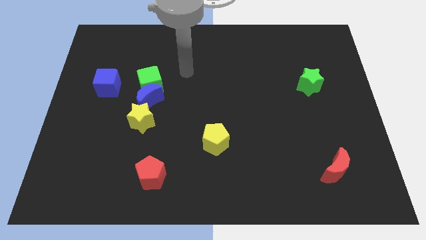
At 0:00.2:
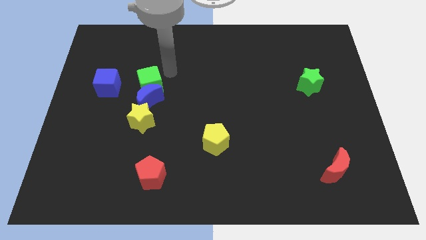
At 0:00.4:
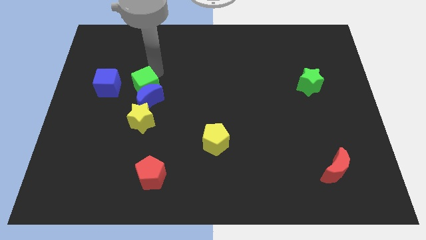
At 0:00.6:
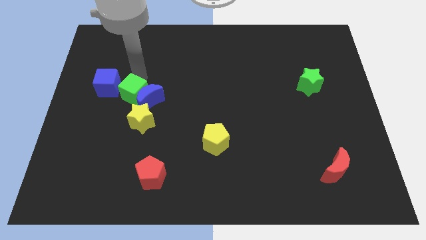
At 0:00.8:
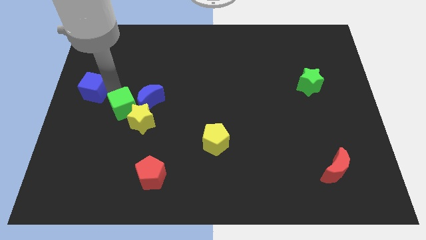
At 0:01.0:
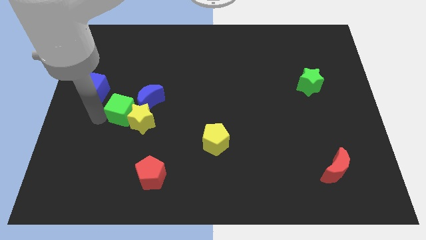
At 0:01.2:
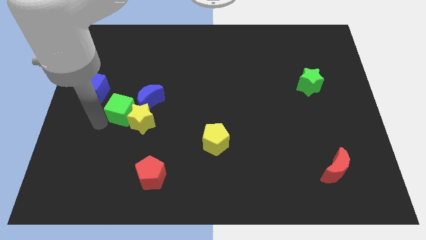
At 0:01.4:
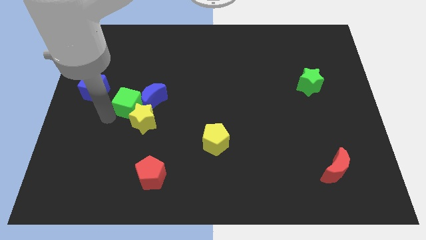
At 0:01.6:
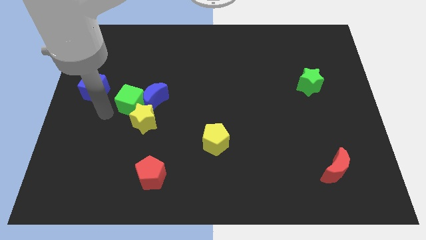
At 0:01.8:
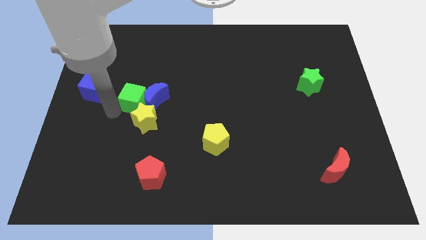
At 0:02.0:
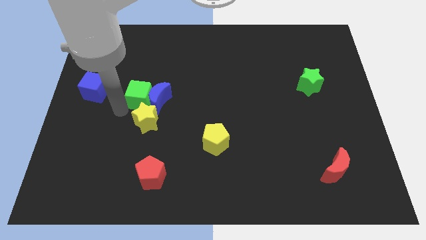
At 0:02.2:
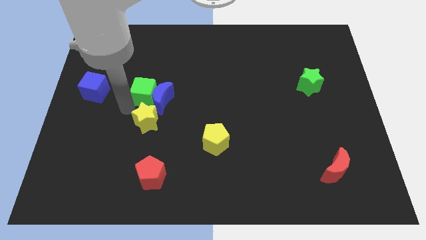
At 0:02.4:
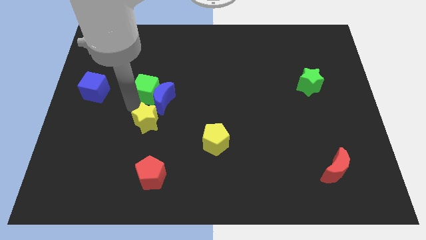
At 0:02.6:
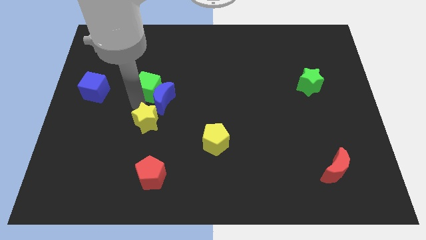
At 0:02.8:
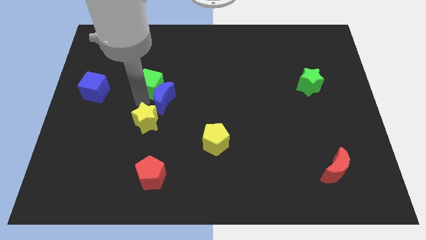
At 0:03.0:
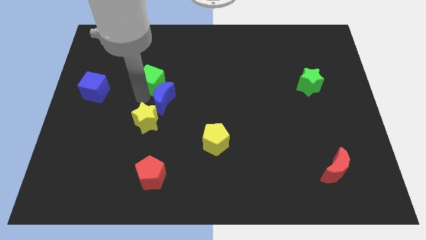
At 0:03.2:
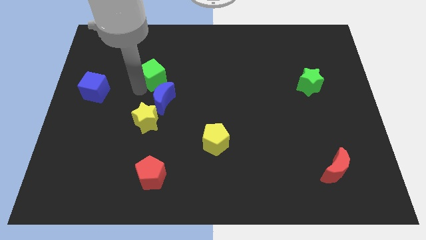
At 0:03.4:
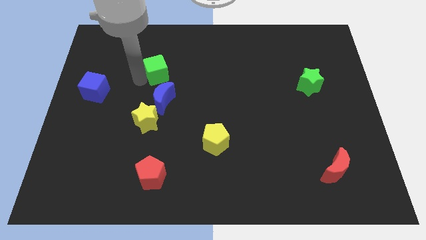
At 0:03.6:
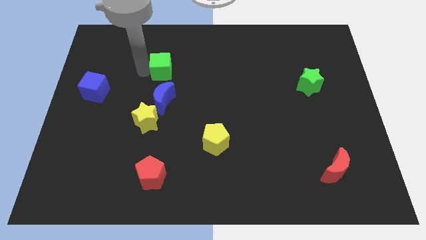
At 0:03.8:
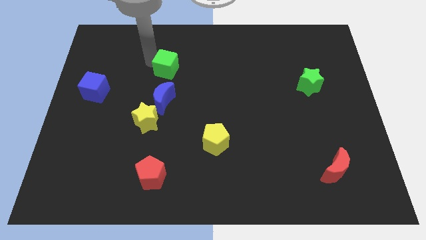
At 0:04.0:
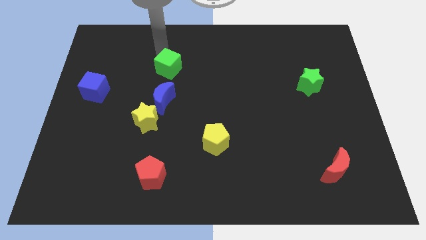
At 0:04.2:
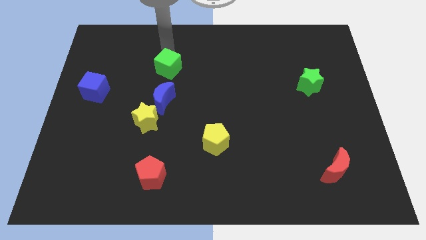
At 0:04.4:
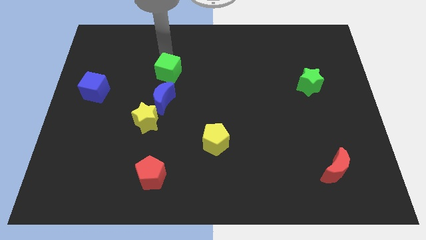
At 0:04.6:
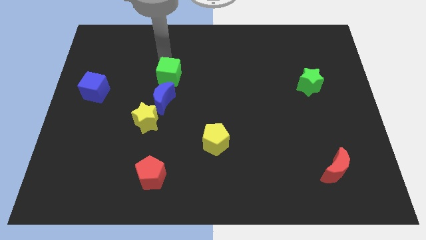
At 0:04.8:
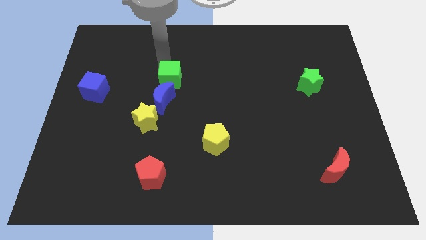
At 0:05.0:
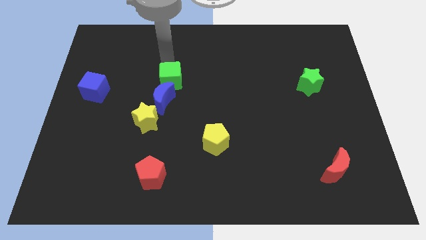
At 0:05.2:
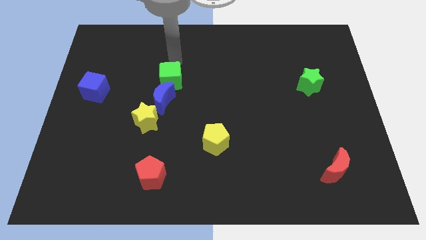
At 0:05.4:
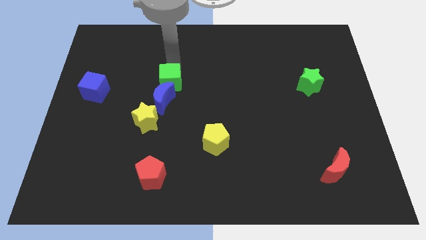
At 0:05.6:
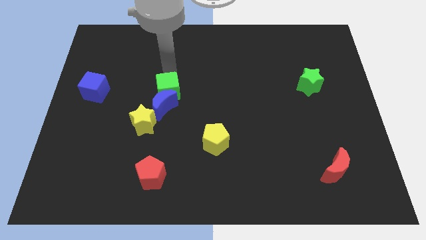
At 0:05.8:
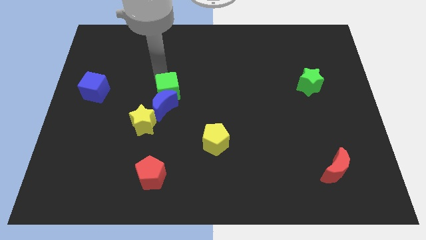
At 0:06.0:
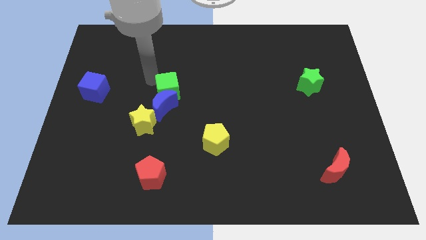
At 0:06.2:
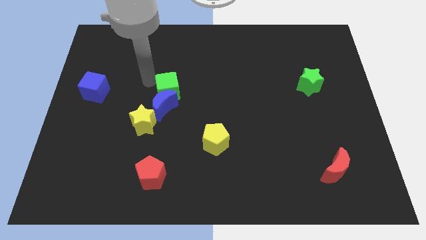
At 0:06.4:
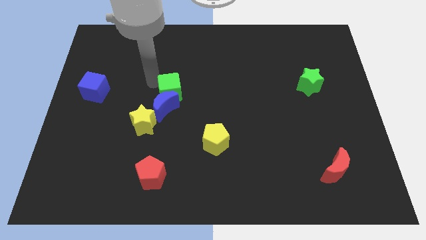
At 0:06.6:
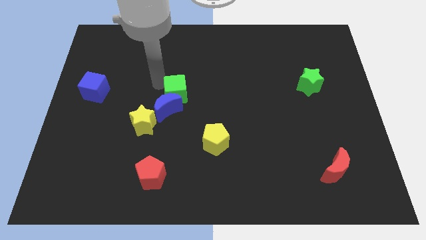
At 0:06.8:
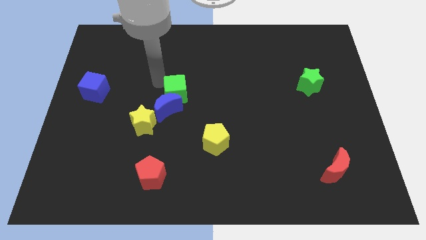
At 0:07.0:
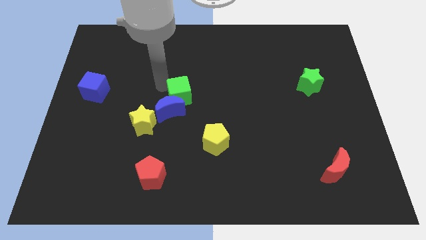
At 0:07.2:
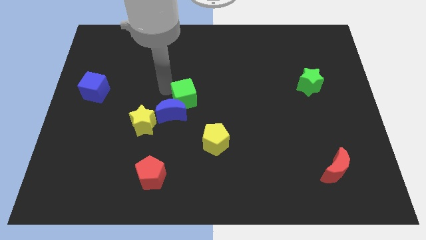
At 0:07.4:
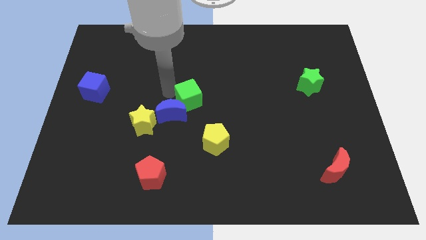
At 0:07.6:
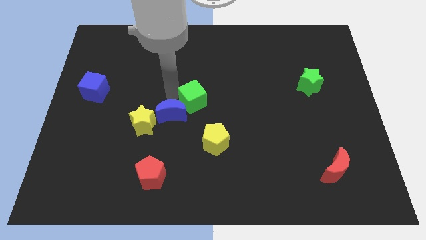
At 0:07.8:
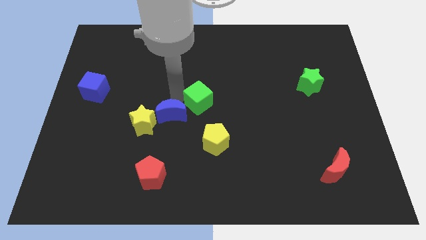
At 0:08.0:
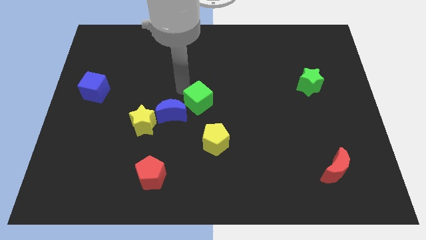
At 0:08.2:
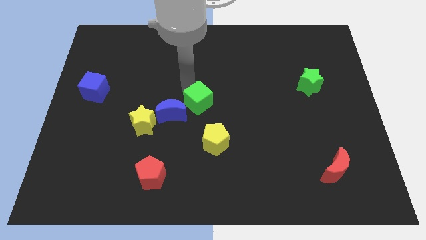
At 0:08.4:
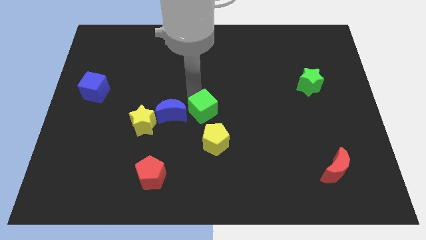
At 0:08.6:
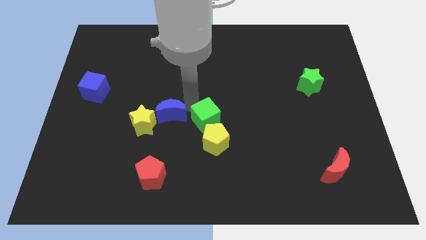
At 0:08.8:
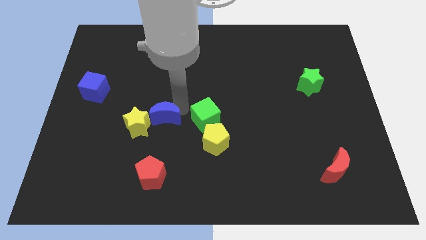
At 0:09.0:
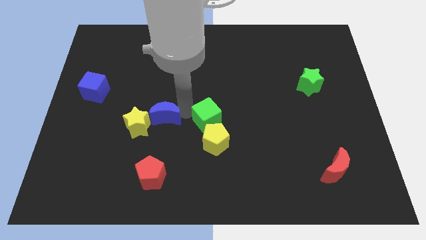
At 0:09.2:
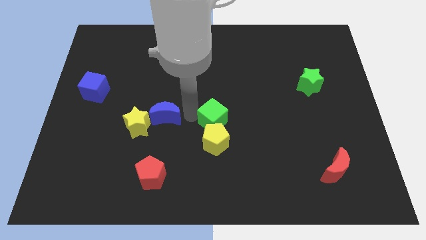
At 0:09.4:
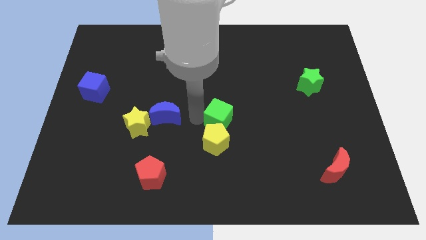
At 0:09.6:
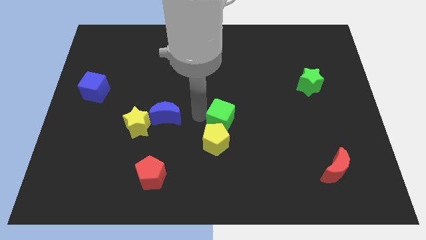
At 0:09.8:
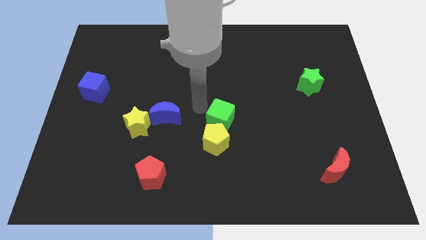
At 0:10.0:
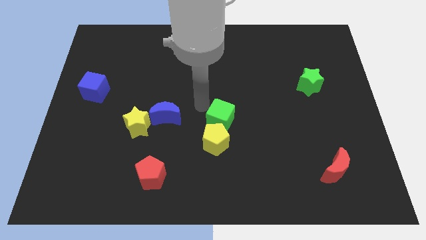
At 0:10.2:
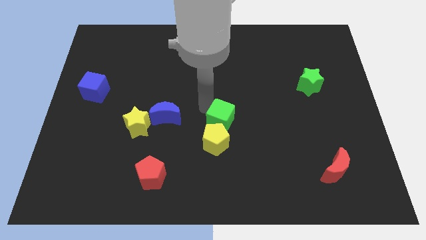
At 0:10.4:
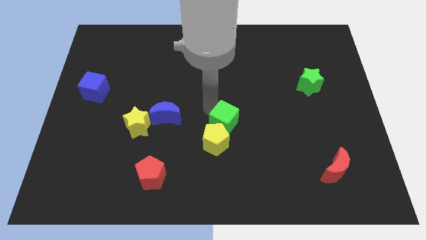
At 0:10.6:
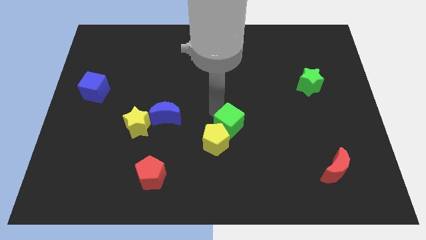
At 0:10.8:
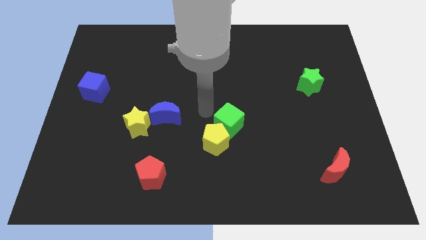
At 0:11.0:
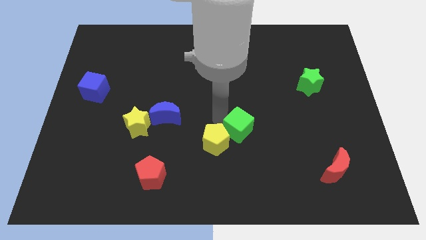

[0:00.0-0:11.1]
move the green cube to the right of the yellow pentagon

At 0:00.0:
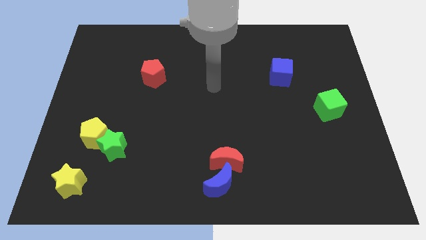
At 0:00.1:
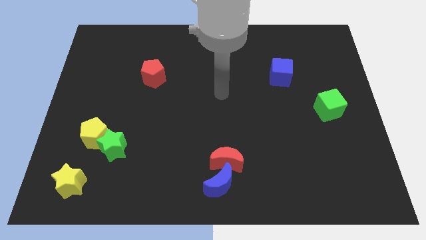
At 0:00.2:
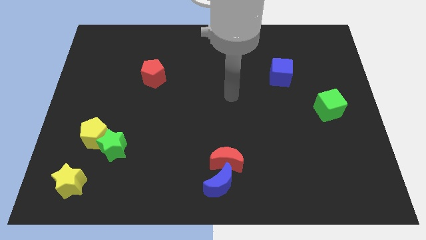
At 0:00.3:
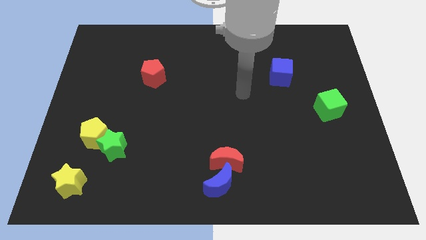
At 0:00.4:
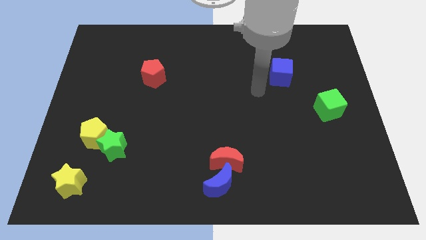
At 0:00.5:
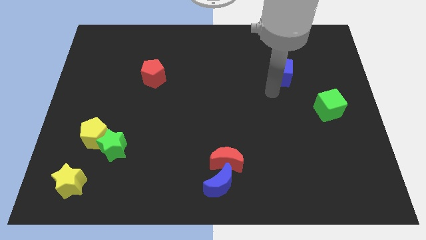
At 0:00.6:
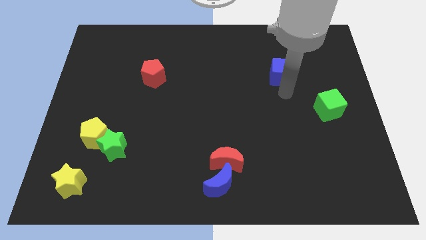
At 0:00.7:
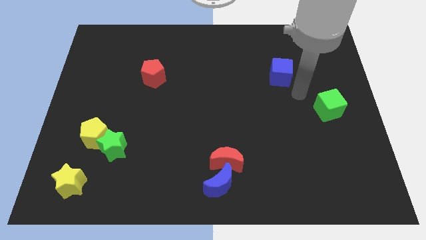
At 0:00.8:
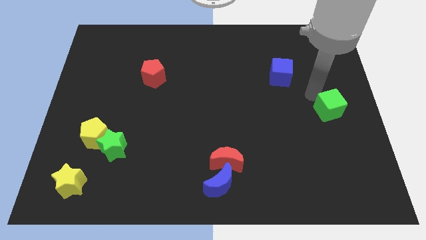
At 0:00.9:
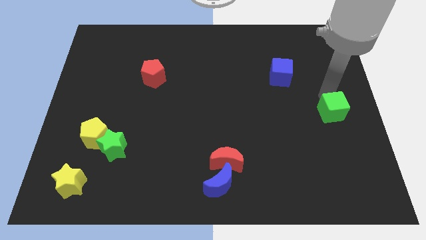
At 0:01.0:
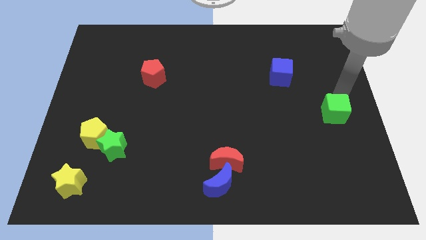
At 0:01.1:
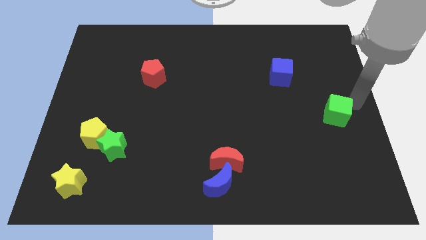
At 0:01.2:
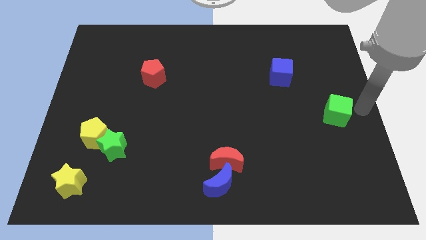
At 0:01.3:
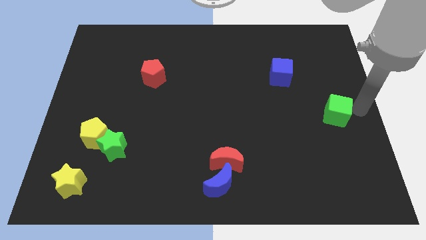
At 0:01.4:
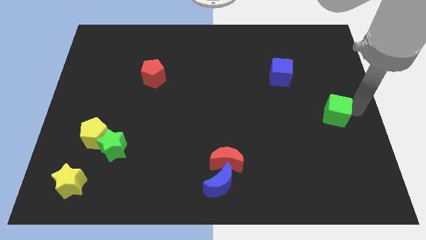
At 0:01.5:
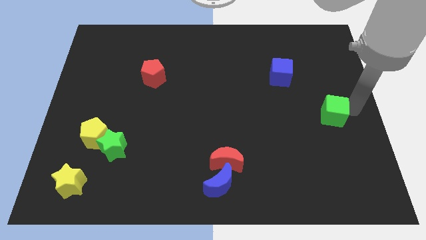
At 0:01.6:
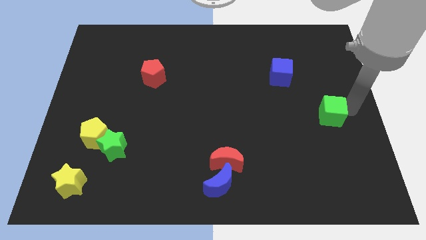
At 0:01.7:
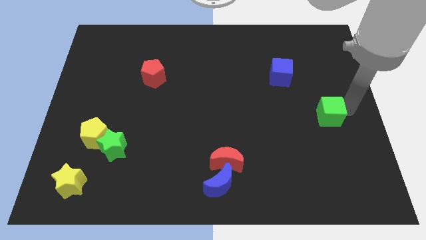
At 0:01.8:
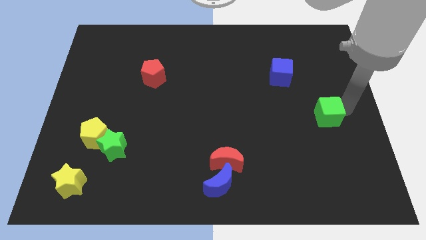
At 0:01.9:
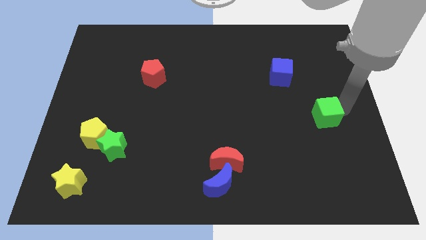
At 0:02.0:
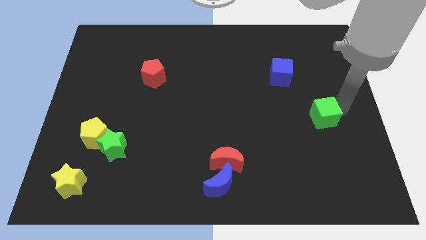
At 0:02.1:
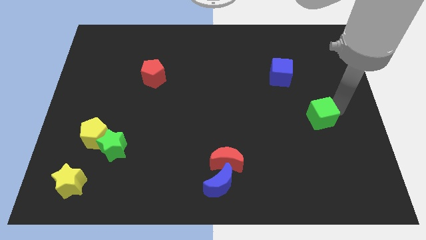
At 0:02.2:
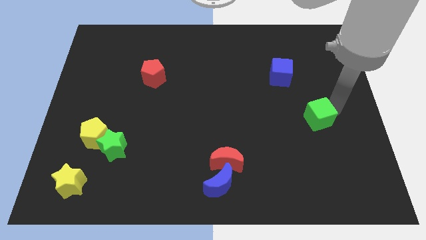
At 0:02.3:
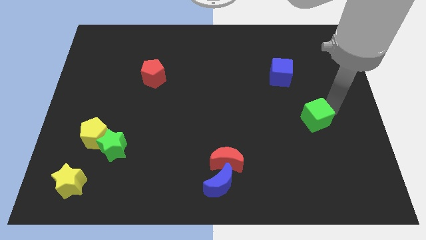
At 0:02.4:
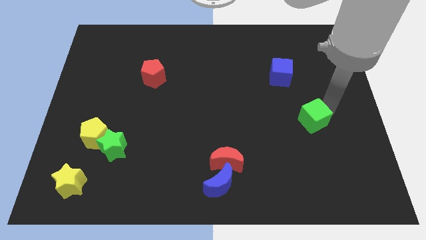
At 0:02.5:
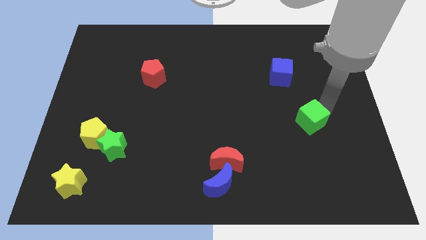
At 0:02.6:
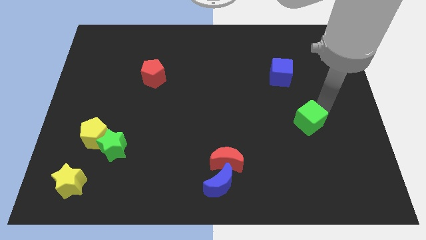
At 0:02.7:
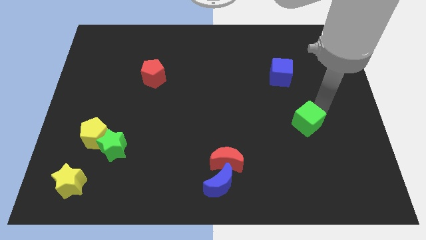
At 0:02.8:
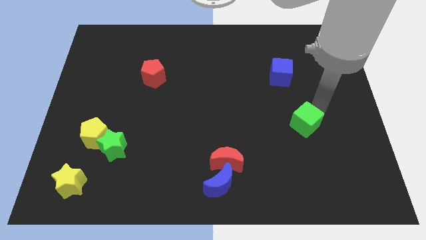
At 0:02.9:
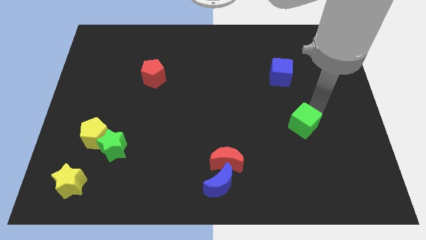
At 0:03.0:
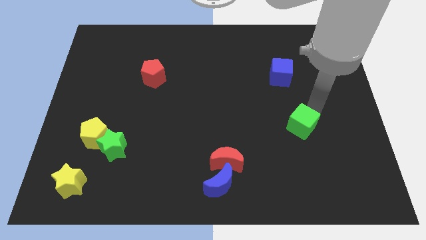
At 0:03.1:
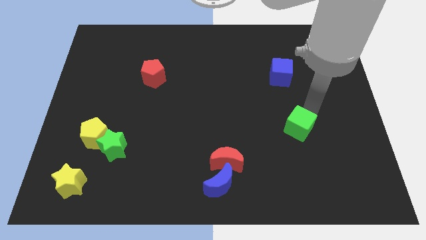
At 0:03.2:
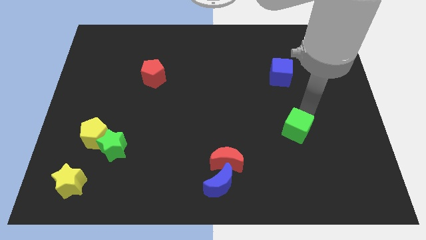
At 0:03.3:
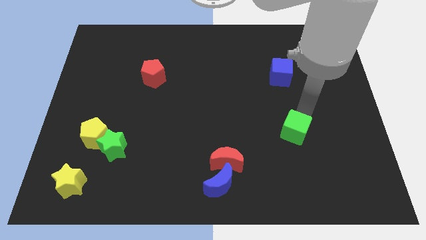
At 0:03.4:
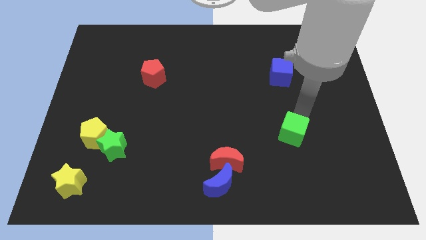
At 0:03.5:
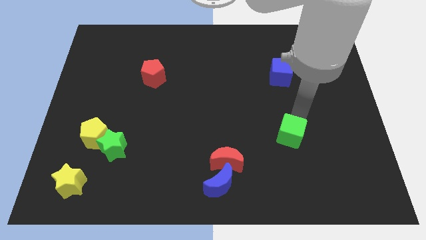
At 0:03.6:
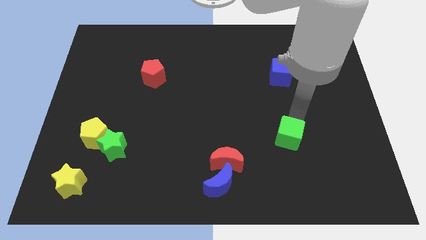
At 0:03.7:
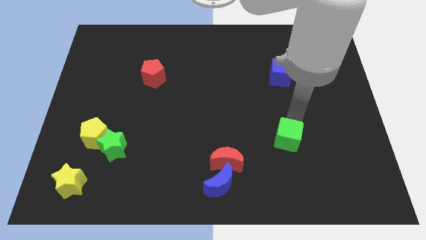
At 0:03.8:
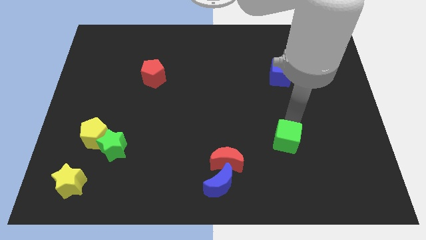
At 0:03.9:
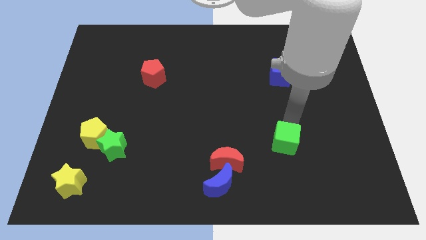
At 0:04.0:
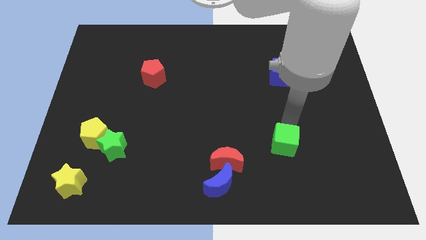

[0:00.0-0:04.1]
move the green cube to the right side of the red moon
